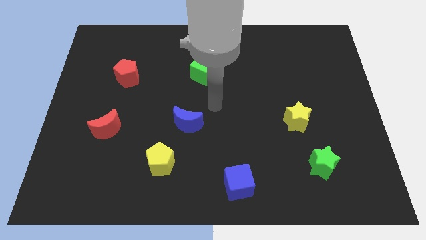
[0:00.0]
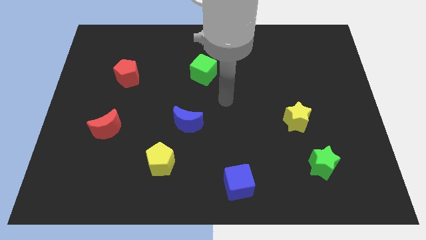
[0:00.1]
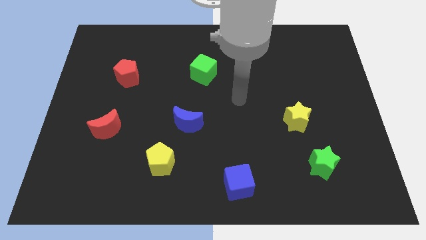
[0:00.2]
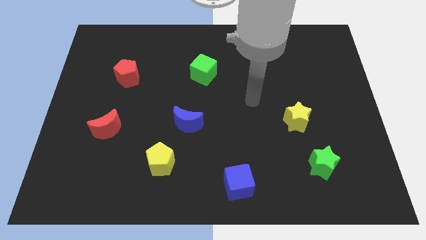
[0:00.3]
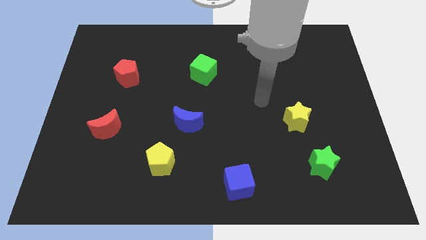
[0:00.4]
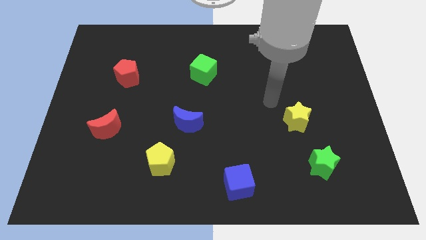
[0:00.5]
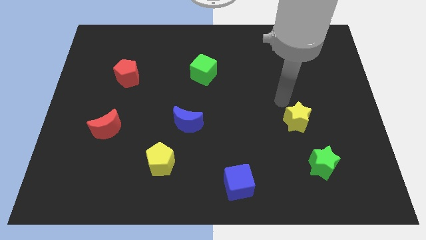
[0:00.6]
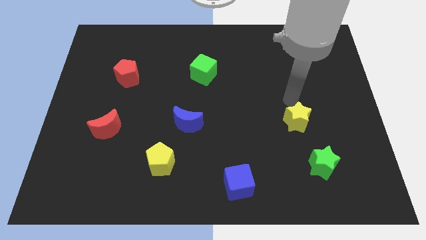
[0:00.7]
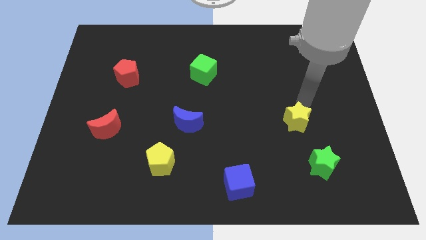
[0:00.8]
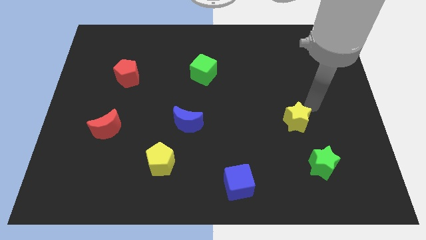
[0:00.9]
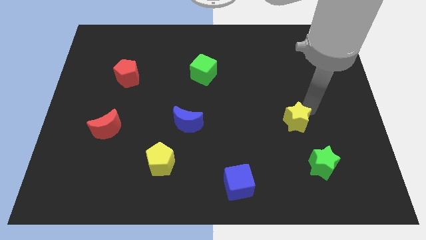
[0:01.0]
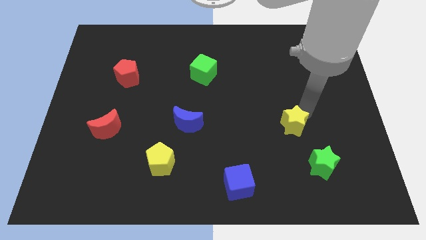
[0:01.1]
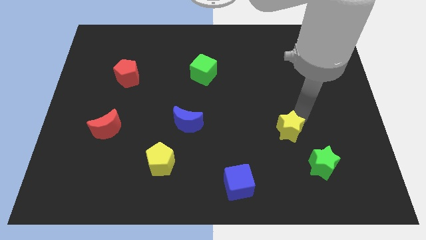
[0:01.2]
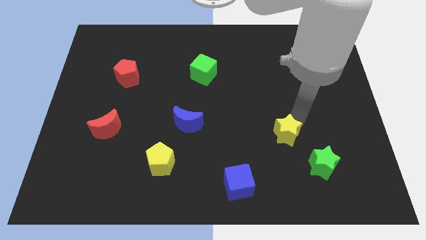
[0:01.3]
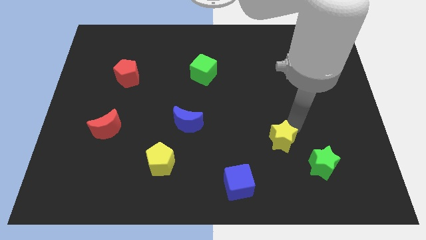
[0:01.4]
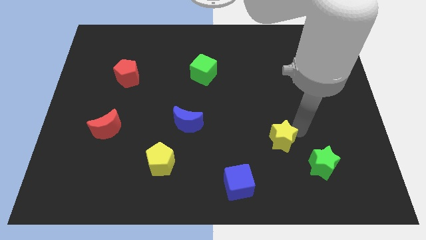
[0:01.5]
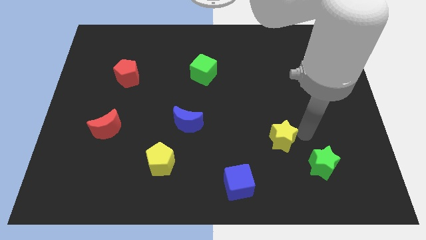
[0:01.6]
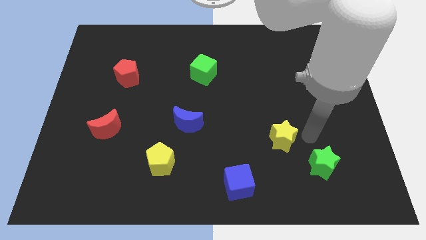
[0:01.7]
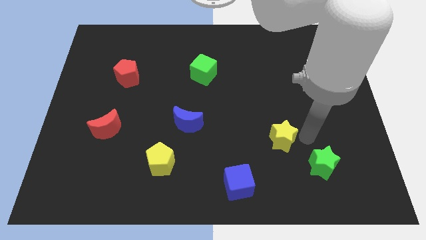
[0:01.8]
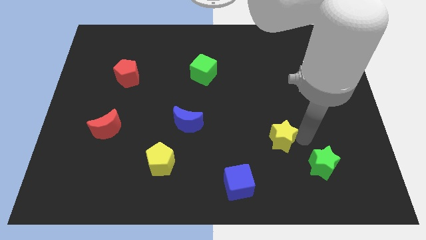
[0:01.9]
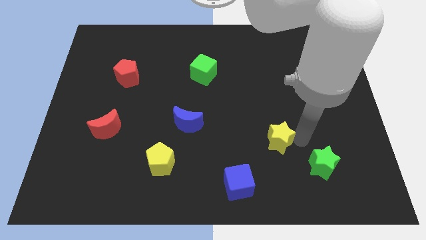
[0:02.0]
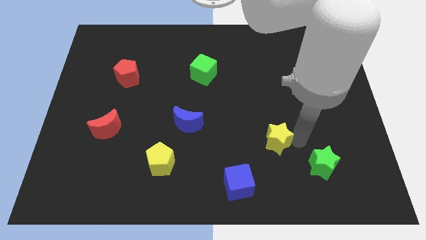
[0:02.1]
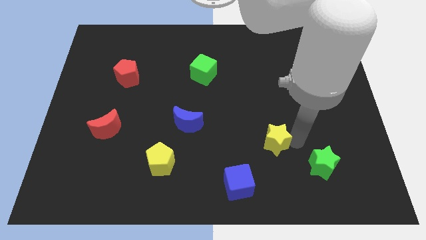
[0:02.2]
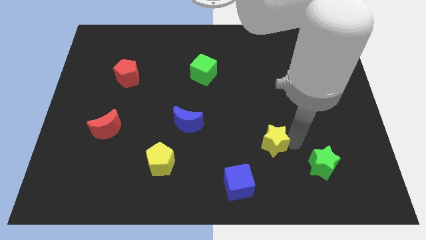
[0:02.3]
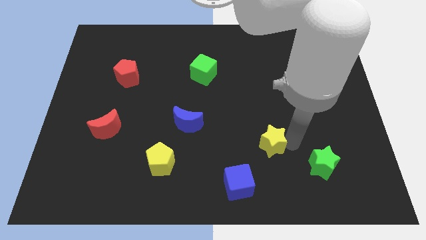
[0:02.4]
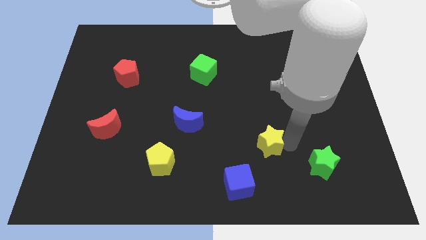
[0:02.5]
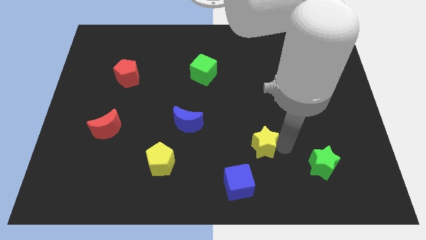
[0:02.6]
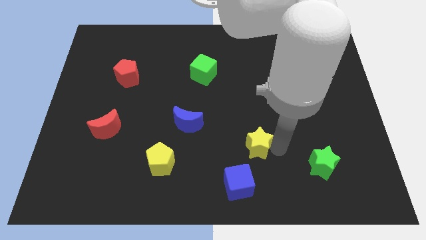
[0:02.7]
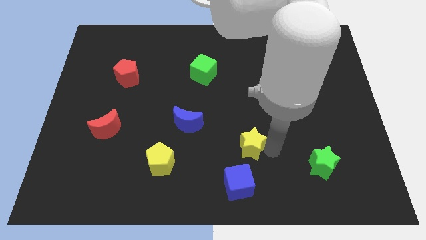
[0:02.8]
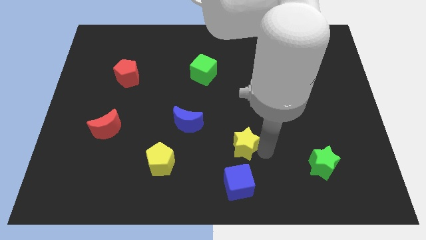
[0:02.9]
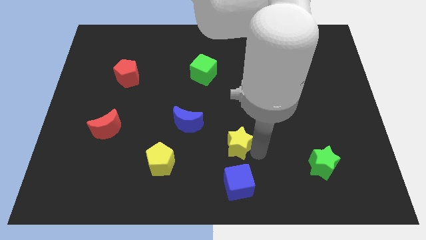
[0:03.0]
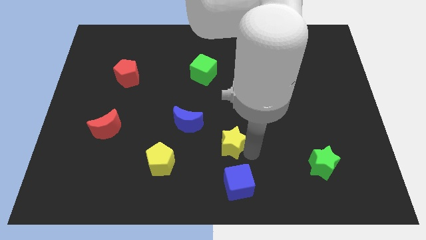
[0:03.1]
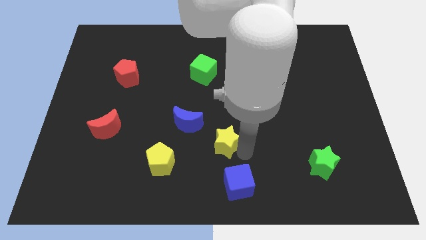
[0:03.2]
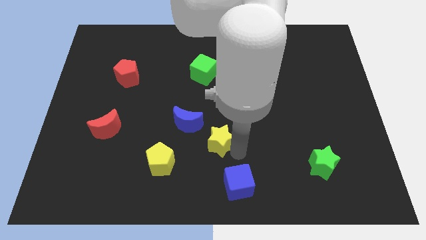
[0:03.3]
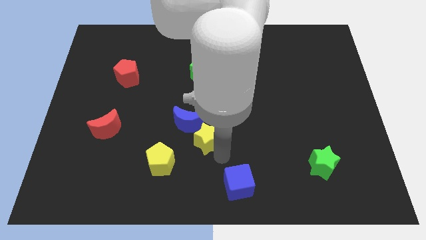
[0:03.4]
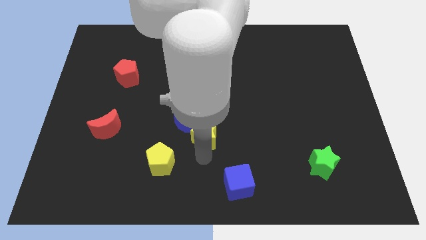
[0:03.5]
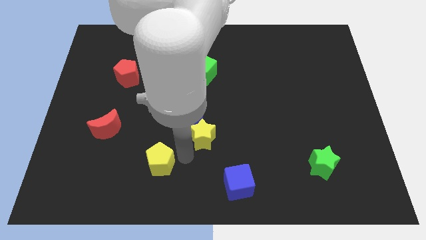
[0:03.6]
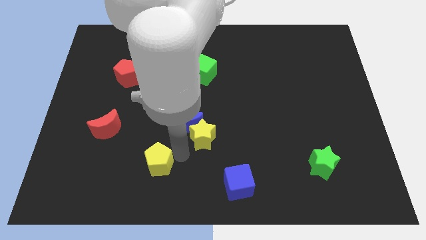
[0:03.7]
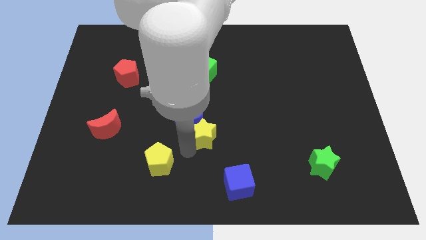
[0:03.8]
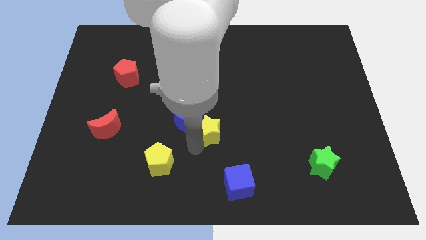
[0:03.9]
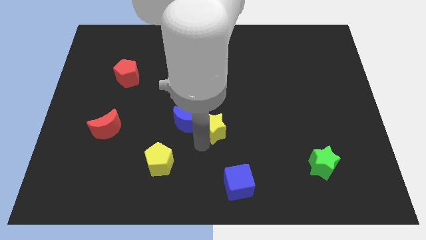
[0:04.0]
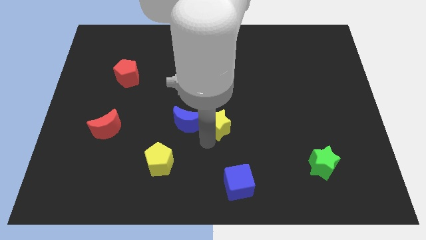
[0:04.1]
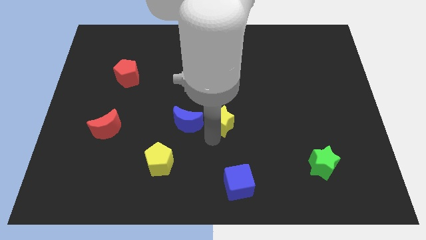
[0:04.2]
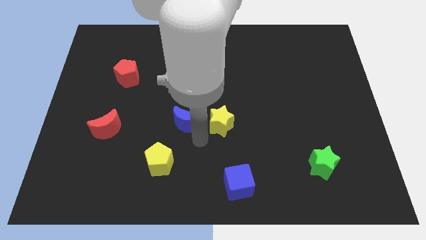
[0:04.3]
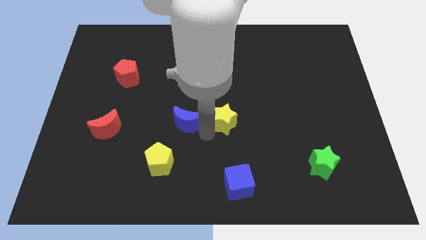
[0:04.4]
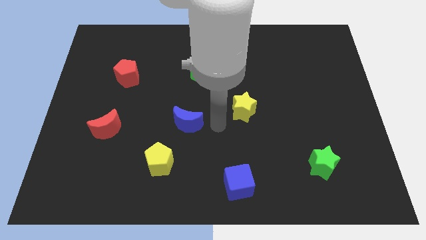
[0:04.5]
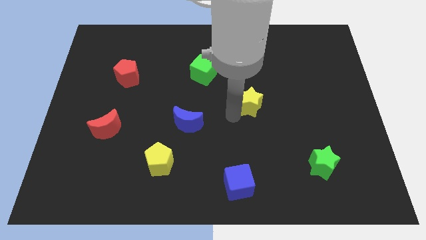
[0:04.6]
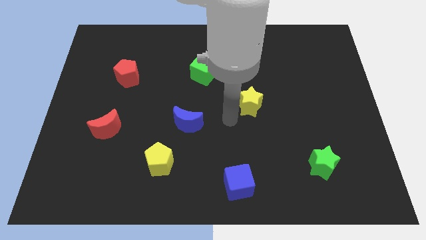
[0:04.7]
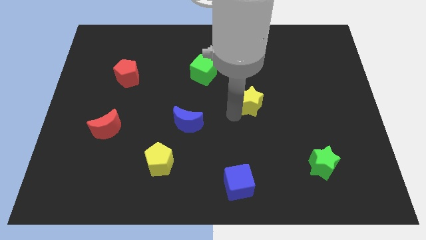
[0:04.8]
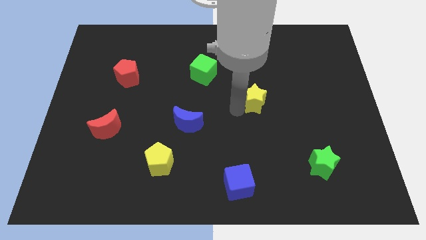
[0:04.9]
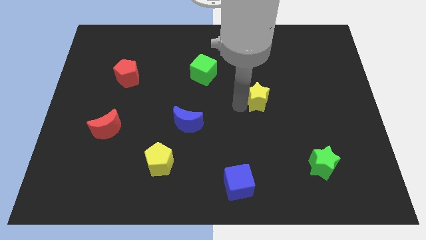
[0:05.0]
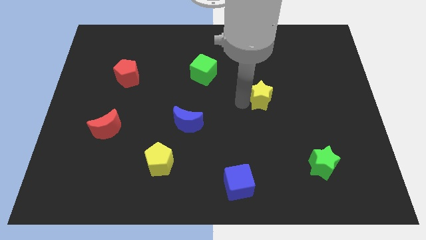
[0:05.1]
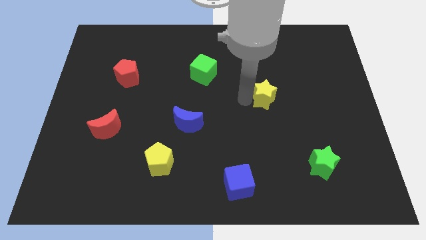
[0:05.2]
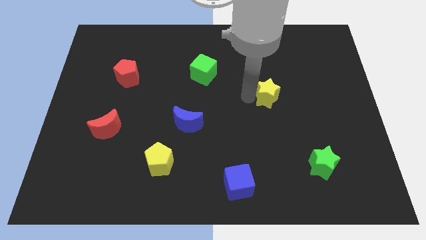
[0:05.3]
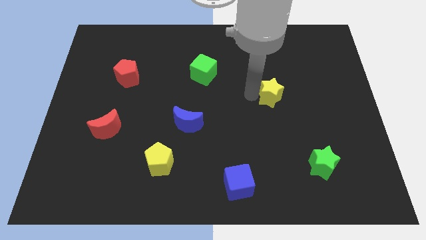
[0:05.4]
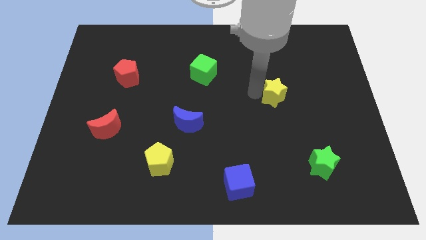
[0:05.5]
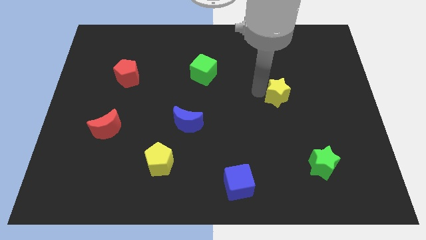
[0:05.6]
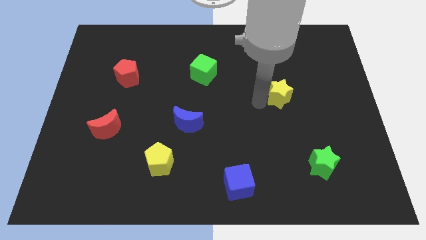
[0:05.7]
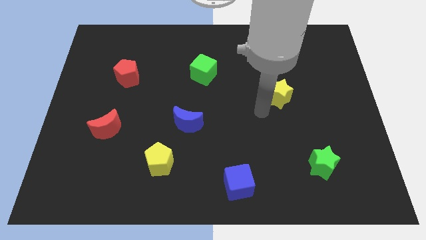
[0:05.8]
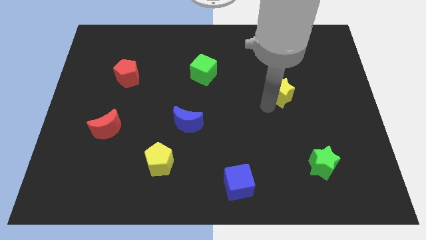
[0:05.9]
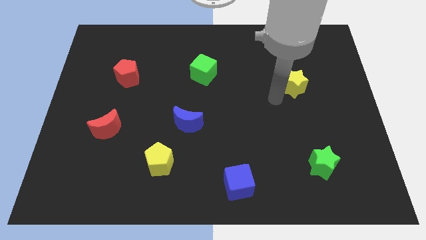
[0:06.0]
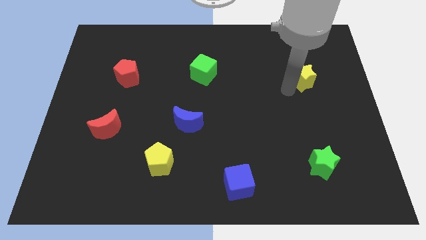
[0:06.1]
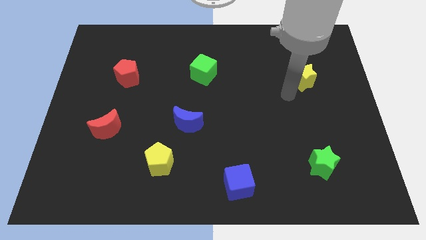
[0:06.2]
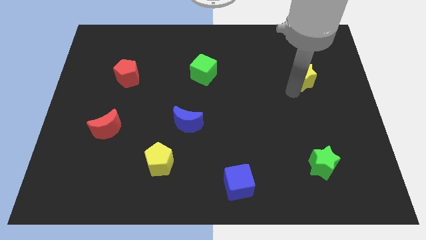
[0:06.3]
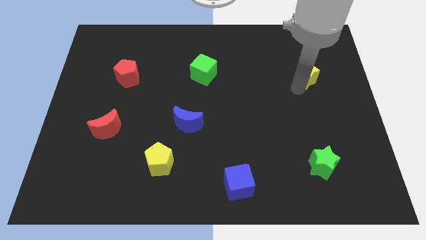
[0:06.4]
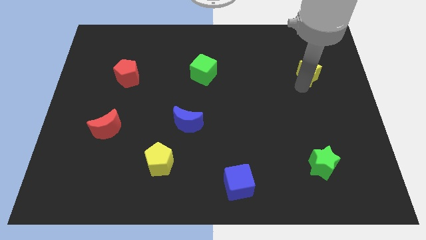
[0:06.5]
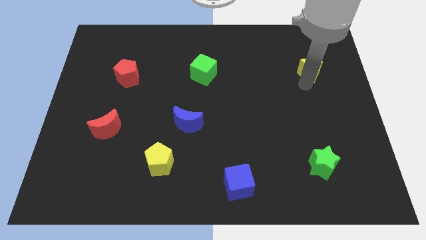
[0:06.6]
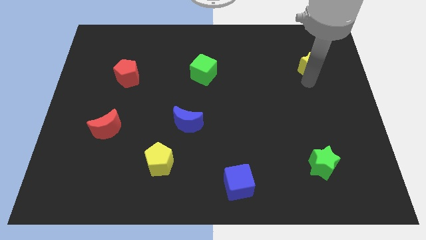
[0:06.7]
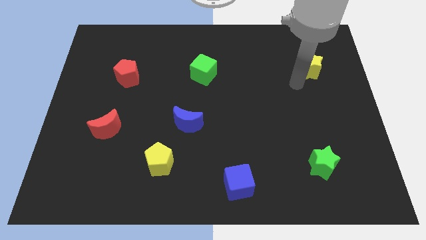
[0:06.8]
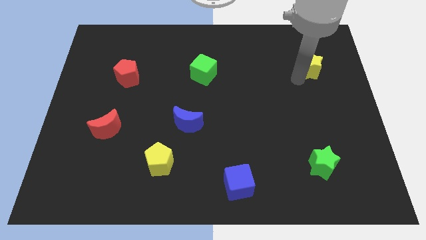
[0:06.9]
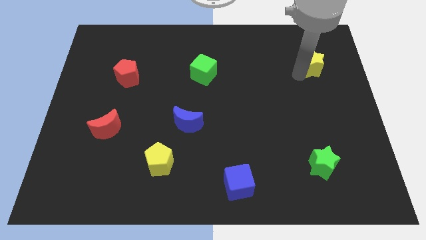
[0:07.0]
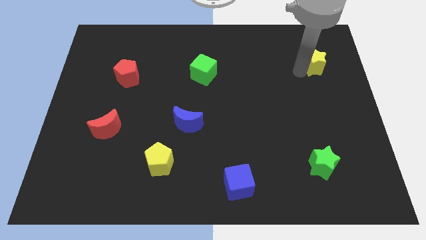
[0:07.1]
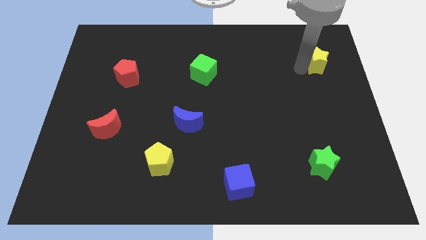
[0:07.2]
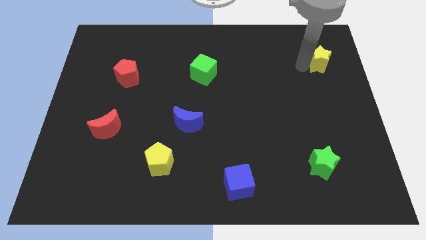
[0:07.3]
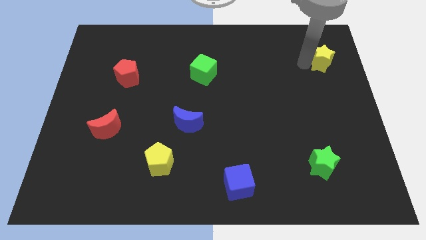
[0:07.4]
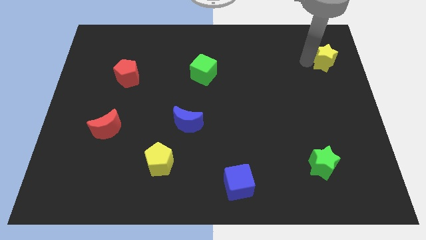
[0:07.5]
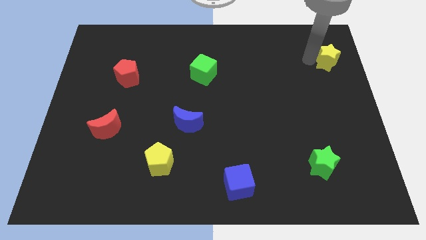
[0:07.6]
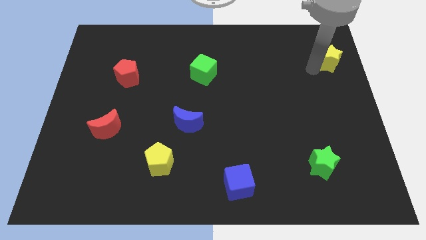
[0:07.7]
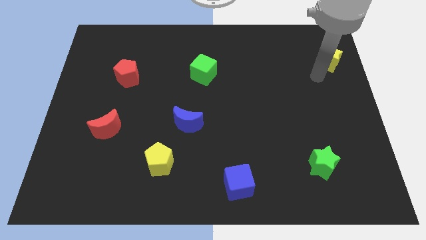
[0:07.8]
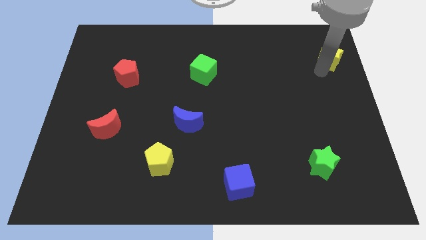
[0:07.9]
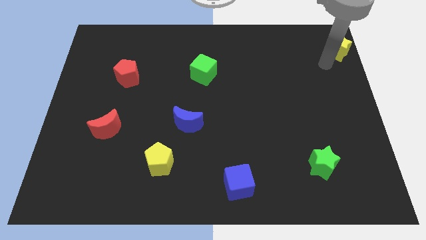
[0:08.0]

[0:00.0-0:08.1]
move the yellow star to the upper right corner
